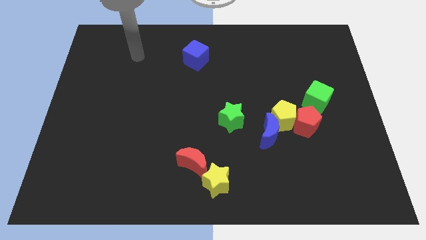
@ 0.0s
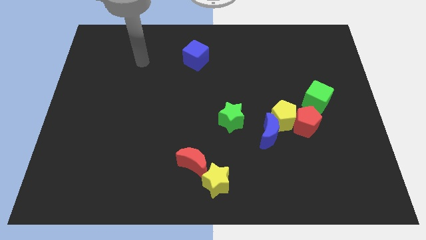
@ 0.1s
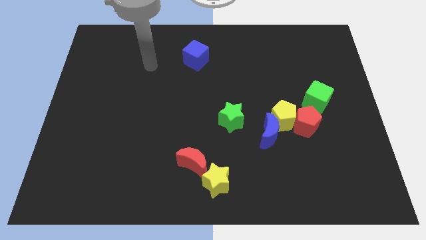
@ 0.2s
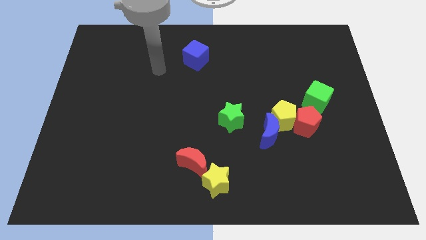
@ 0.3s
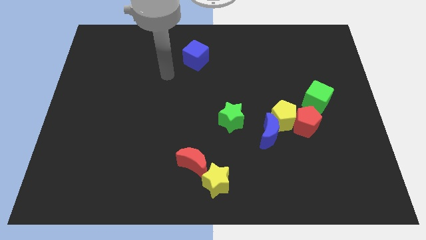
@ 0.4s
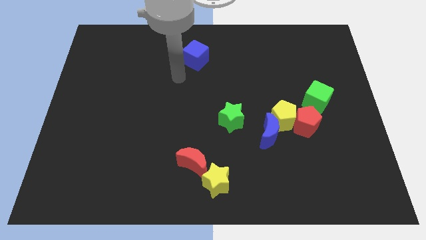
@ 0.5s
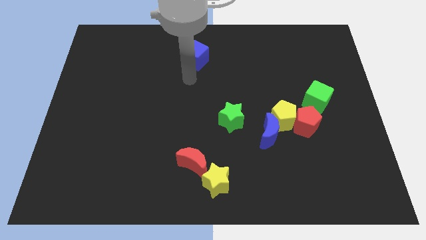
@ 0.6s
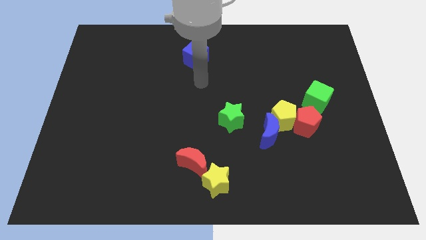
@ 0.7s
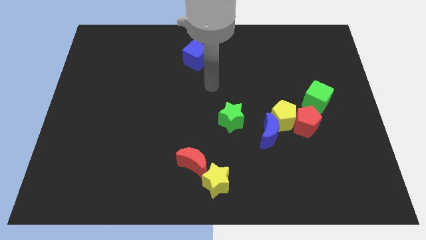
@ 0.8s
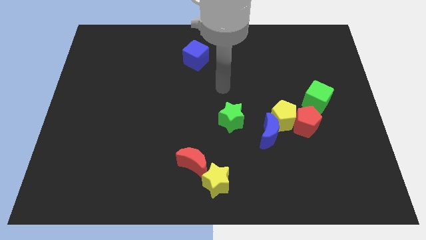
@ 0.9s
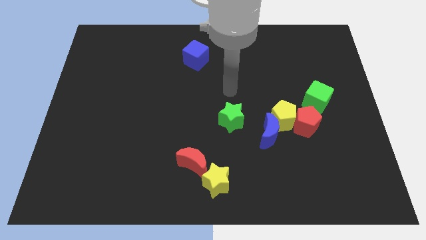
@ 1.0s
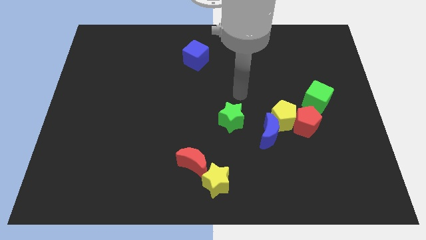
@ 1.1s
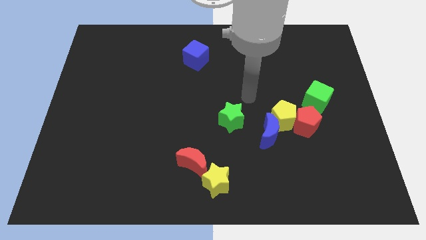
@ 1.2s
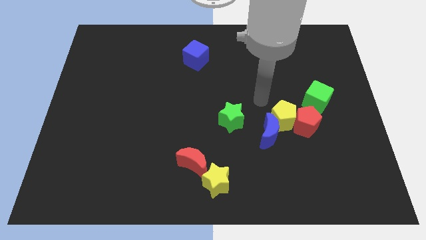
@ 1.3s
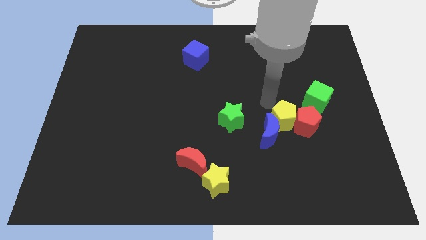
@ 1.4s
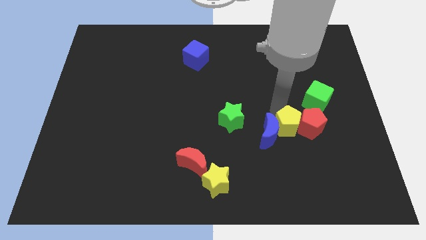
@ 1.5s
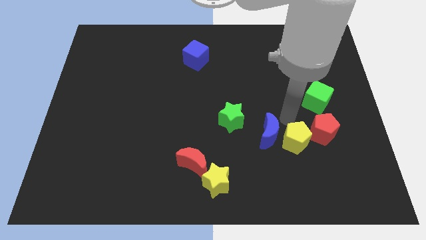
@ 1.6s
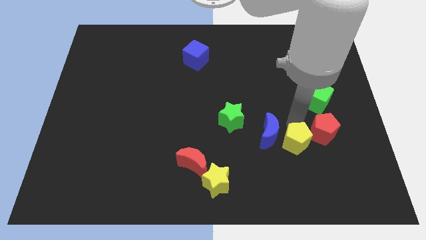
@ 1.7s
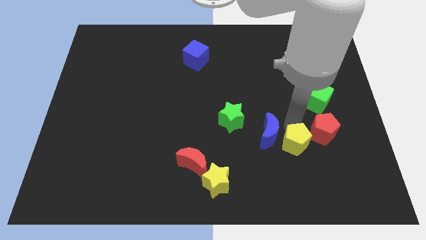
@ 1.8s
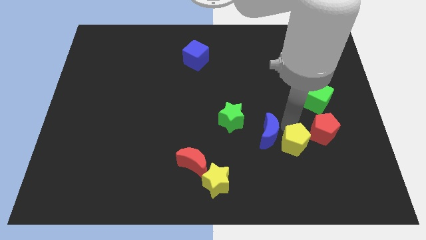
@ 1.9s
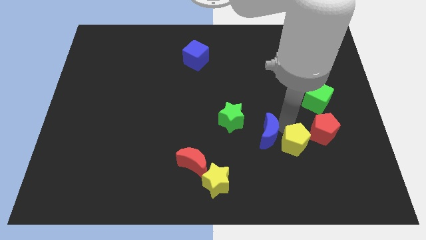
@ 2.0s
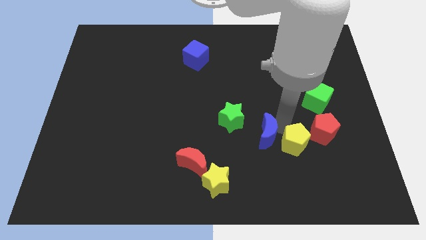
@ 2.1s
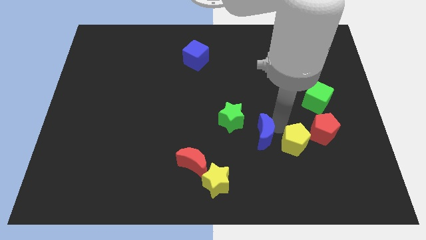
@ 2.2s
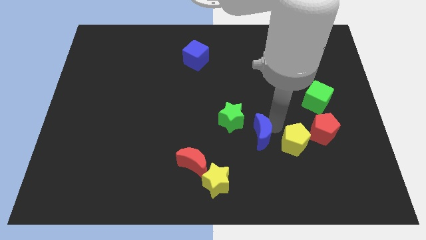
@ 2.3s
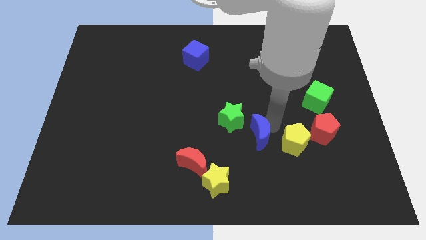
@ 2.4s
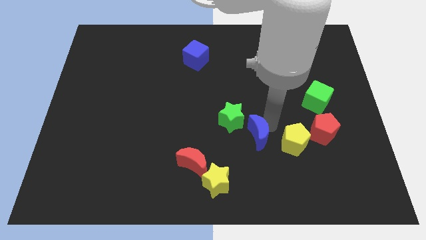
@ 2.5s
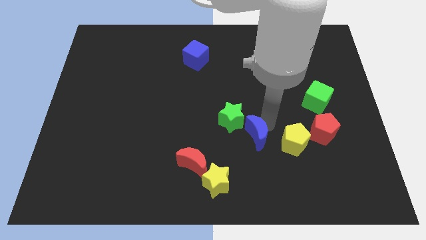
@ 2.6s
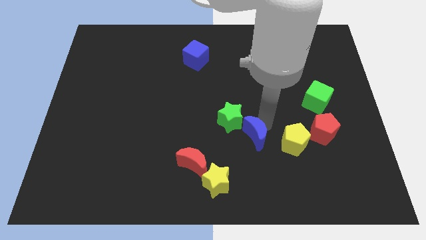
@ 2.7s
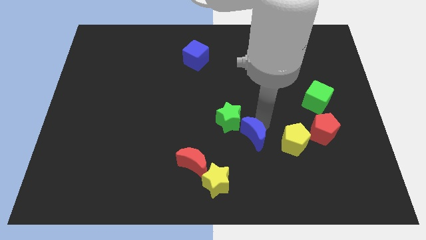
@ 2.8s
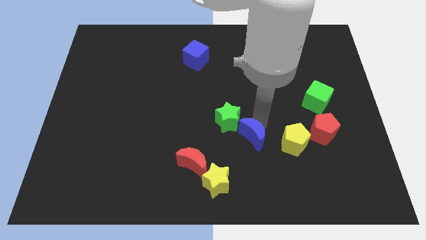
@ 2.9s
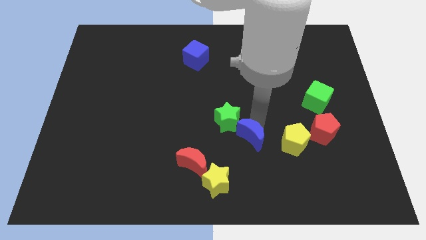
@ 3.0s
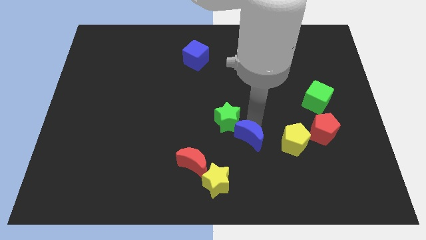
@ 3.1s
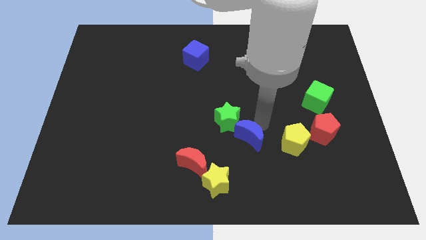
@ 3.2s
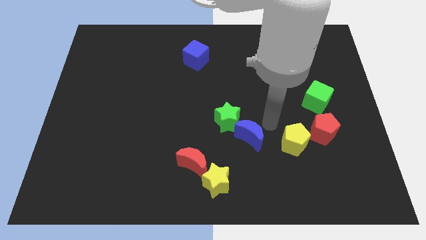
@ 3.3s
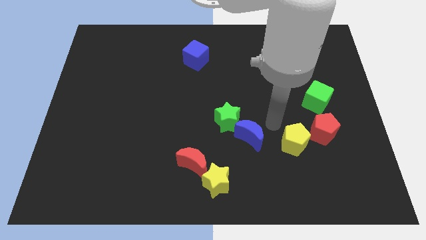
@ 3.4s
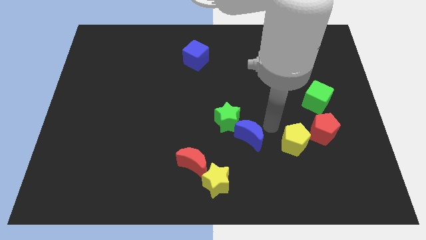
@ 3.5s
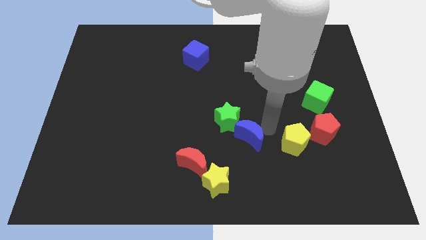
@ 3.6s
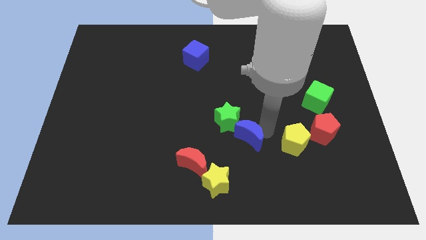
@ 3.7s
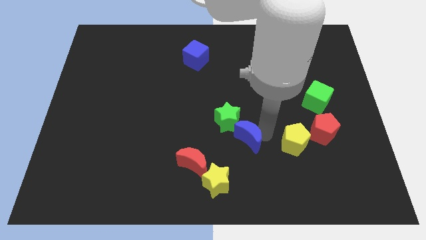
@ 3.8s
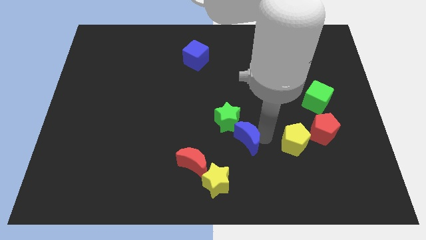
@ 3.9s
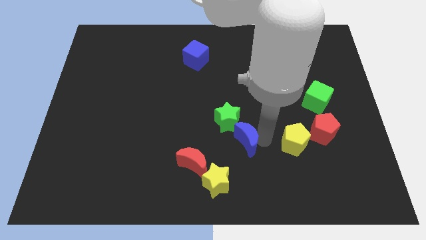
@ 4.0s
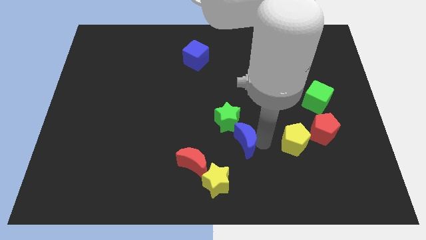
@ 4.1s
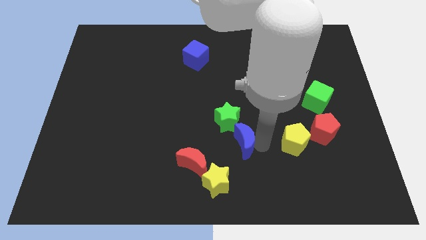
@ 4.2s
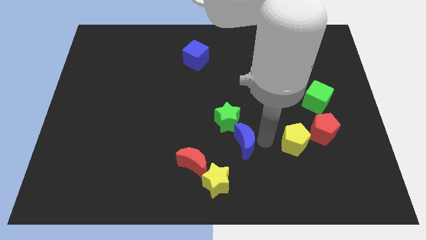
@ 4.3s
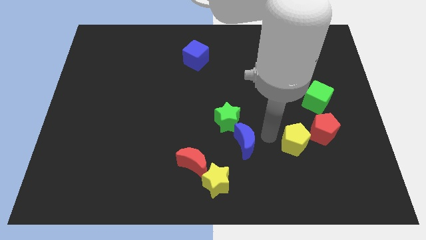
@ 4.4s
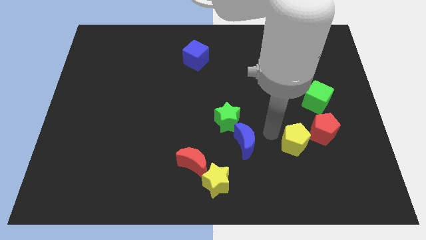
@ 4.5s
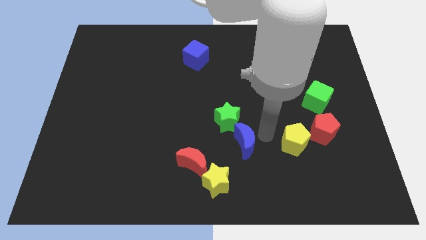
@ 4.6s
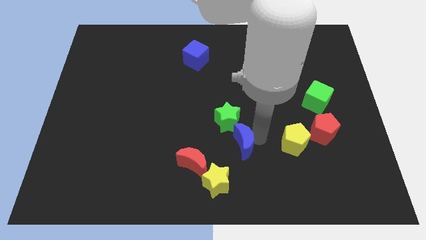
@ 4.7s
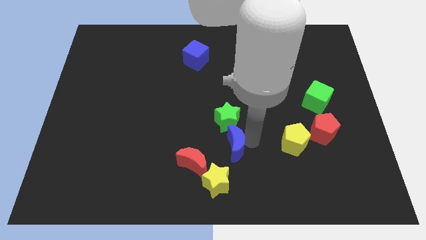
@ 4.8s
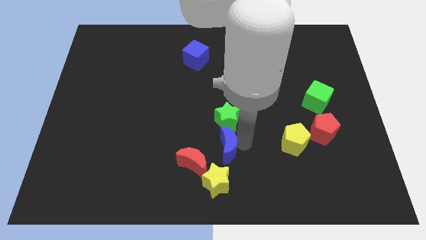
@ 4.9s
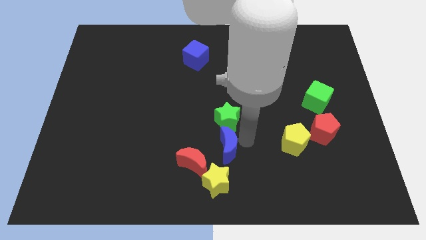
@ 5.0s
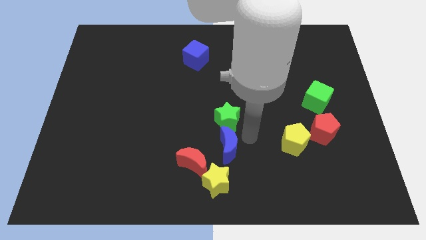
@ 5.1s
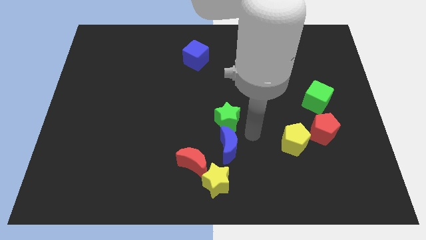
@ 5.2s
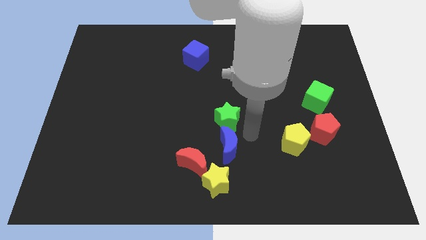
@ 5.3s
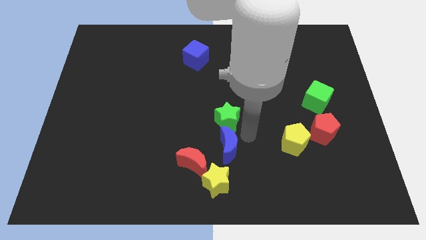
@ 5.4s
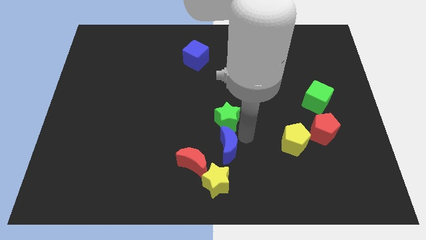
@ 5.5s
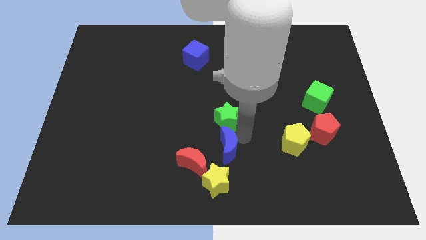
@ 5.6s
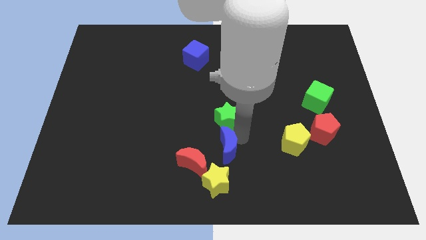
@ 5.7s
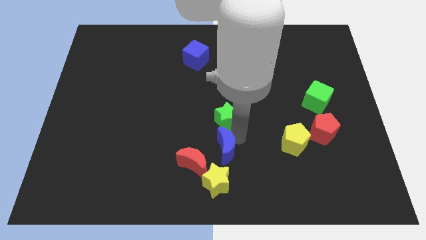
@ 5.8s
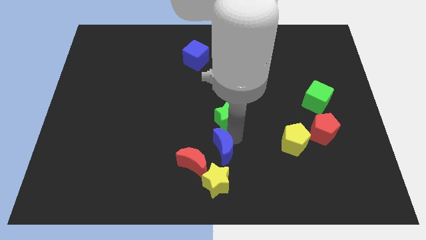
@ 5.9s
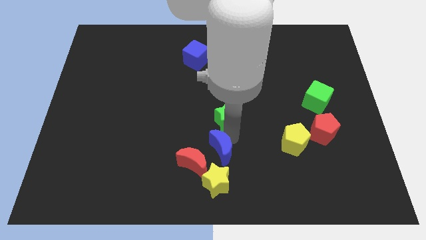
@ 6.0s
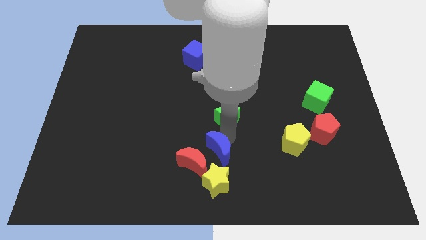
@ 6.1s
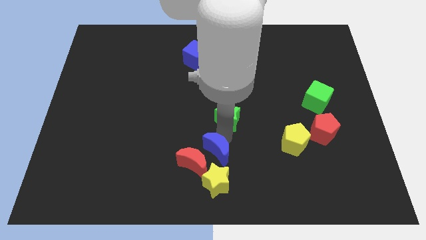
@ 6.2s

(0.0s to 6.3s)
push the blue moon close to the red moon

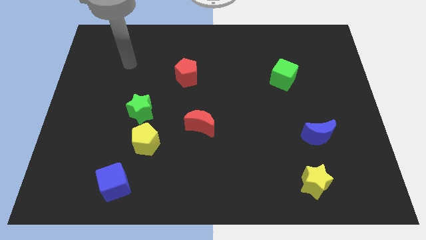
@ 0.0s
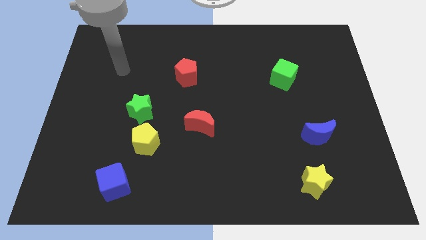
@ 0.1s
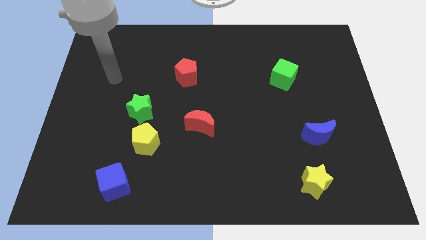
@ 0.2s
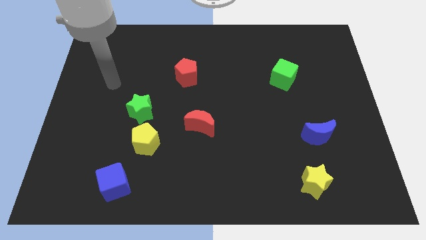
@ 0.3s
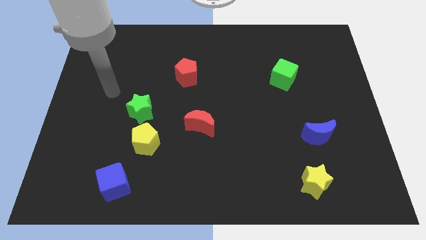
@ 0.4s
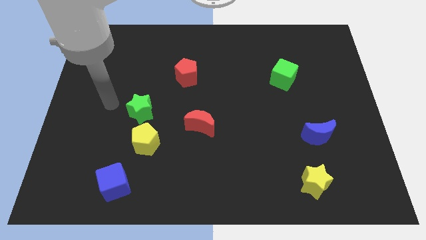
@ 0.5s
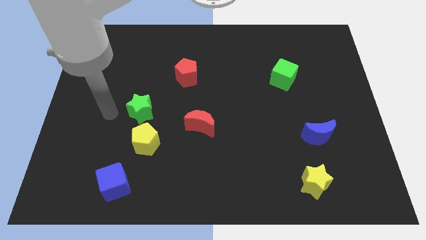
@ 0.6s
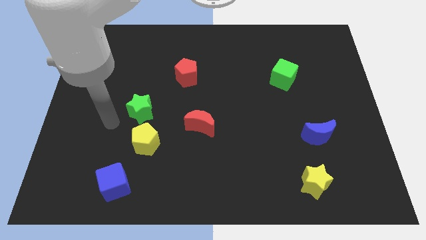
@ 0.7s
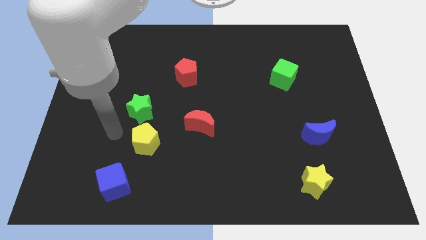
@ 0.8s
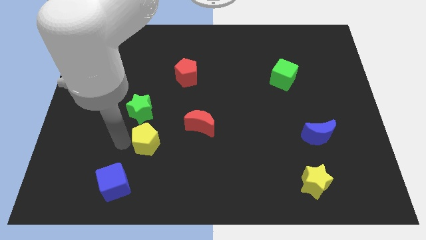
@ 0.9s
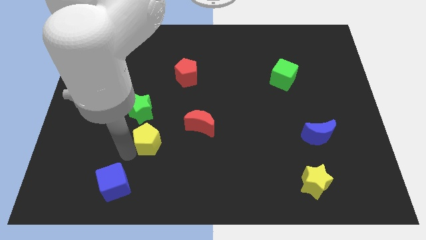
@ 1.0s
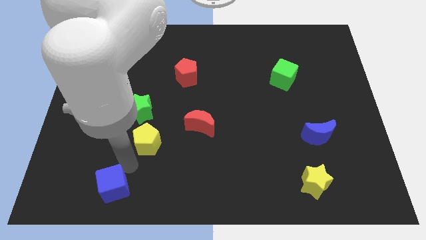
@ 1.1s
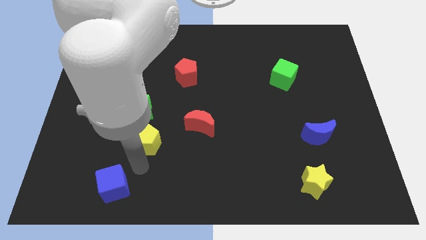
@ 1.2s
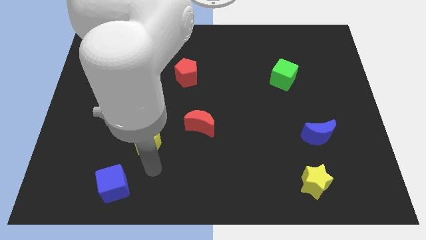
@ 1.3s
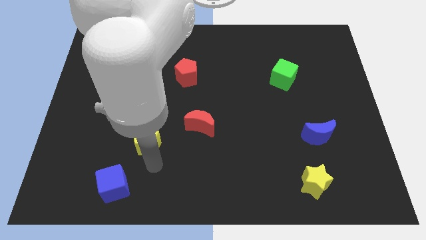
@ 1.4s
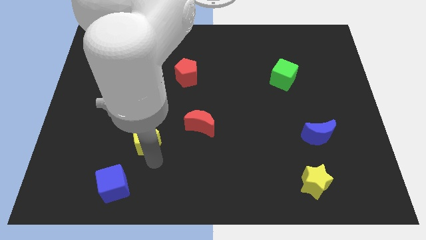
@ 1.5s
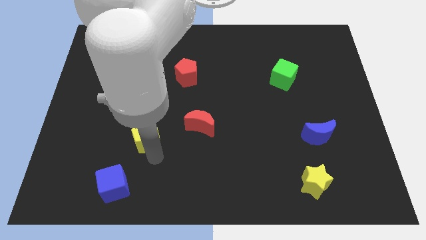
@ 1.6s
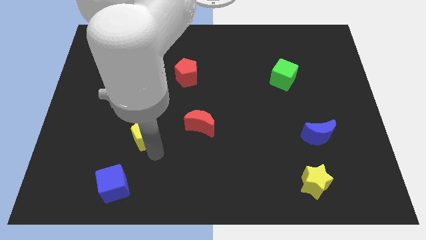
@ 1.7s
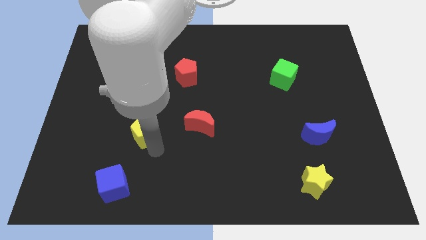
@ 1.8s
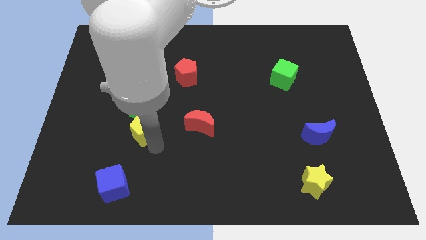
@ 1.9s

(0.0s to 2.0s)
slide the yellow pentagon to the green star
